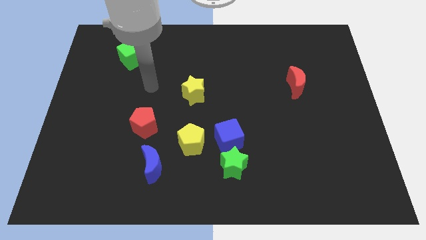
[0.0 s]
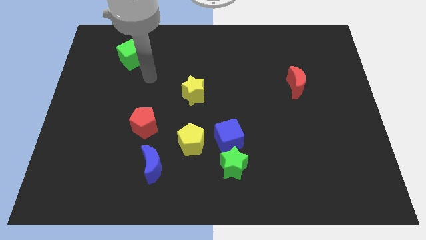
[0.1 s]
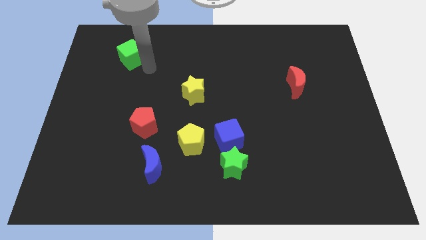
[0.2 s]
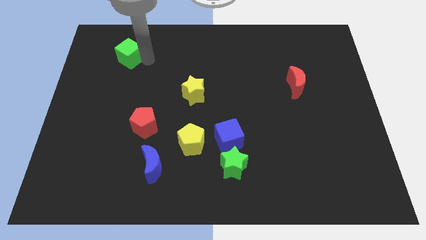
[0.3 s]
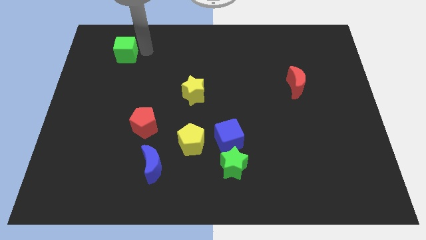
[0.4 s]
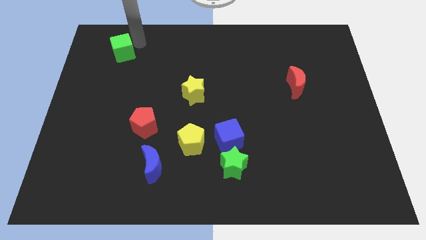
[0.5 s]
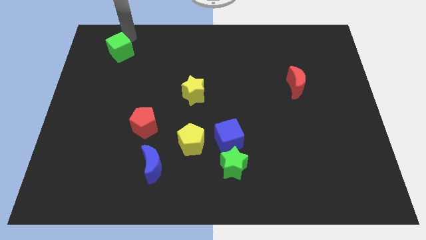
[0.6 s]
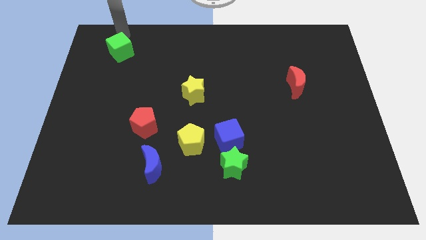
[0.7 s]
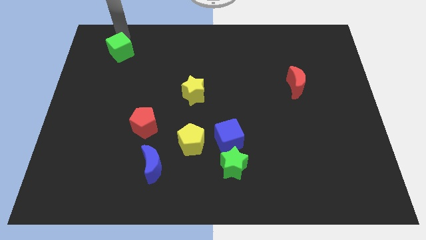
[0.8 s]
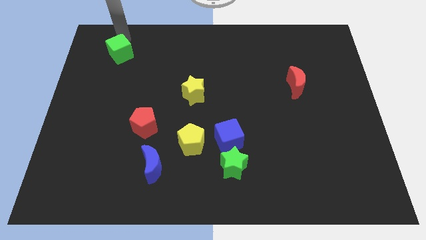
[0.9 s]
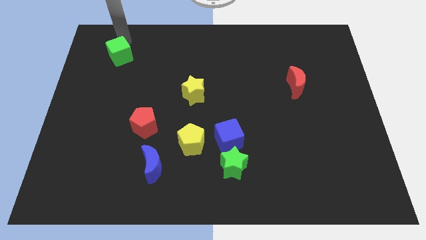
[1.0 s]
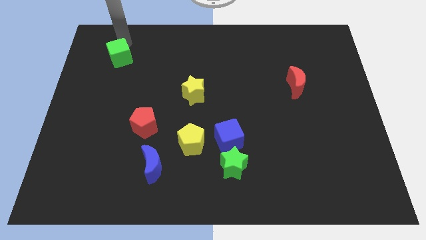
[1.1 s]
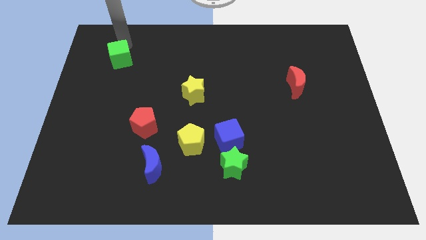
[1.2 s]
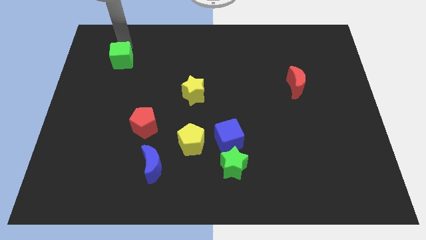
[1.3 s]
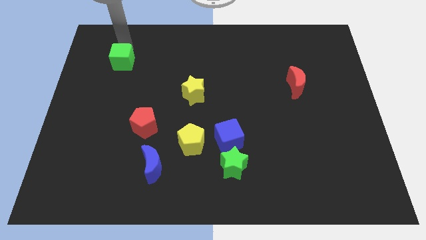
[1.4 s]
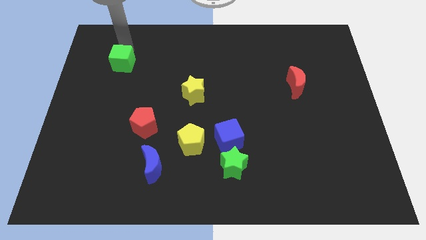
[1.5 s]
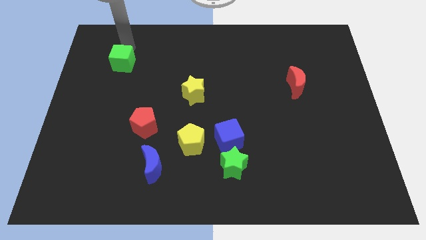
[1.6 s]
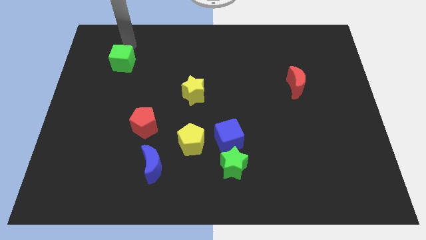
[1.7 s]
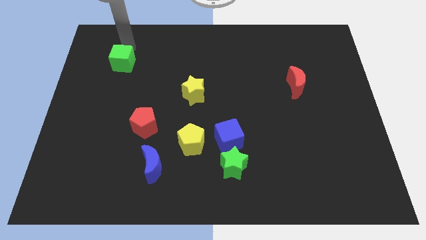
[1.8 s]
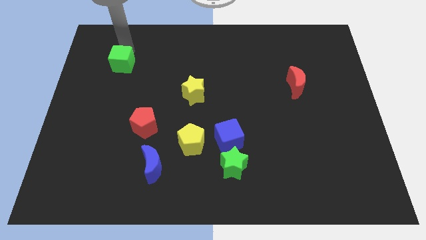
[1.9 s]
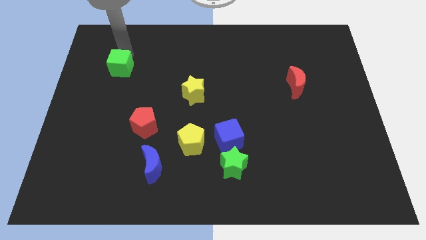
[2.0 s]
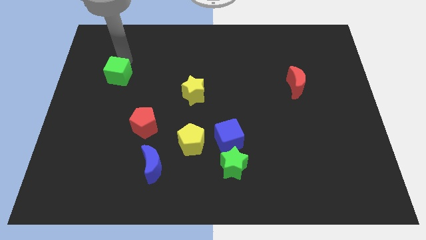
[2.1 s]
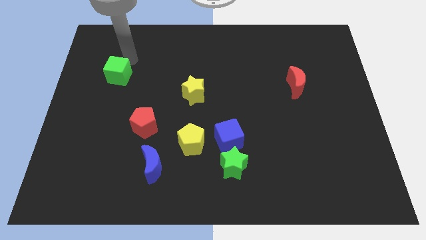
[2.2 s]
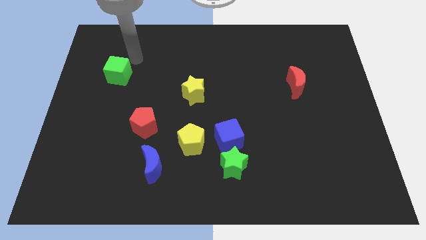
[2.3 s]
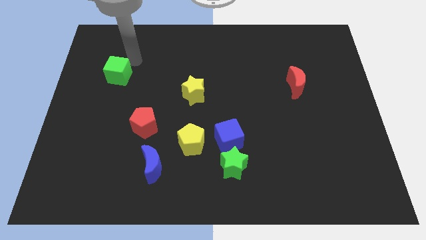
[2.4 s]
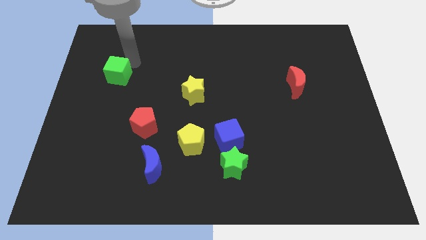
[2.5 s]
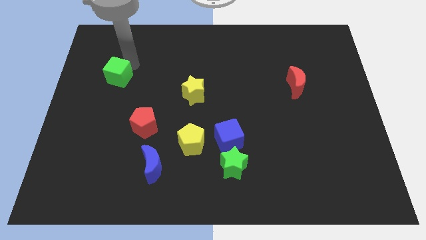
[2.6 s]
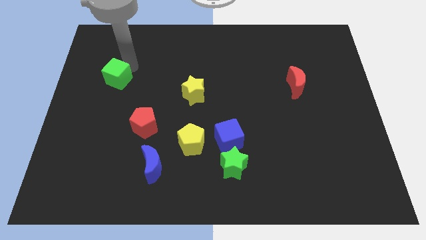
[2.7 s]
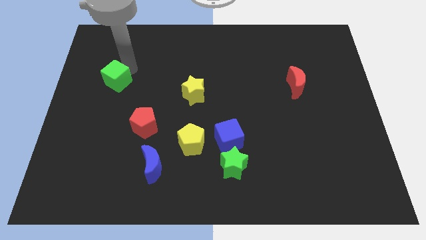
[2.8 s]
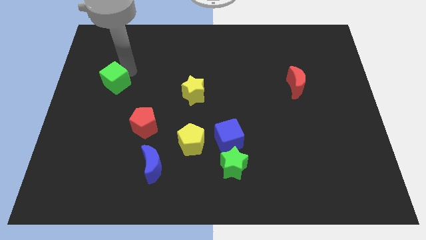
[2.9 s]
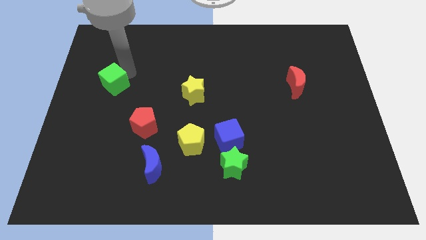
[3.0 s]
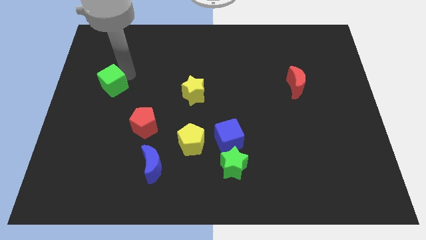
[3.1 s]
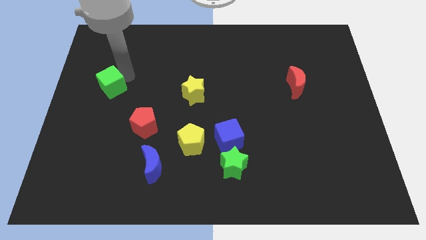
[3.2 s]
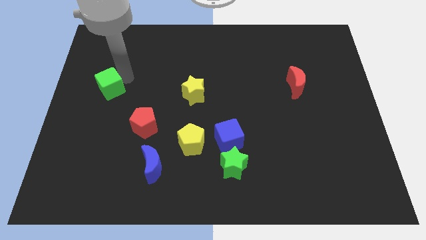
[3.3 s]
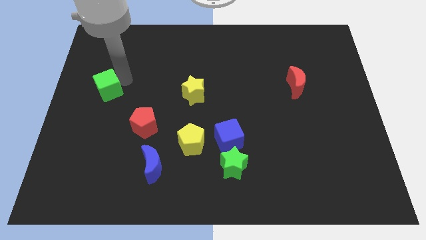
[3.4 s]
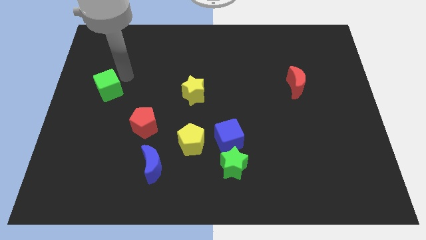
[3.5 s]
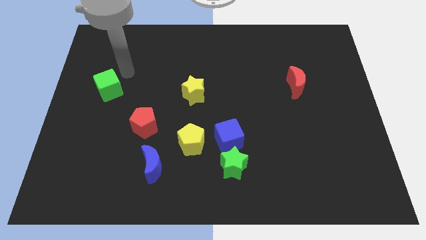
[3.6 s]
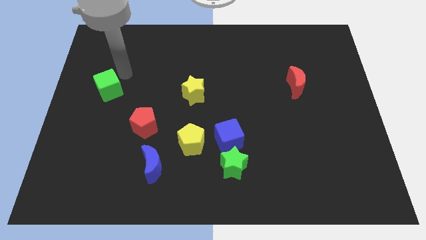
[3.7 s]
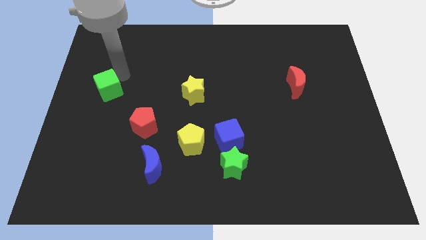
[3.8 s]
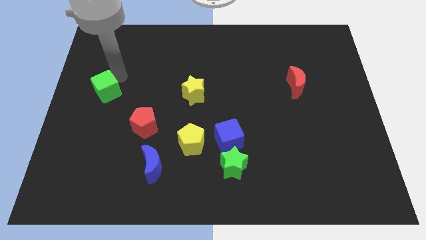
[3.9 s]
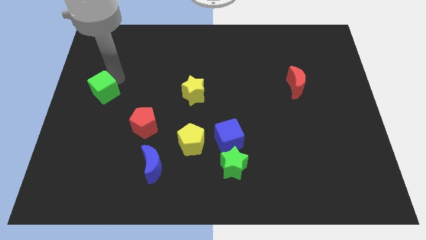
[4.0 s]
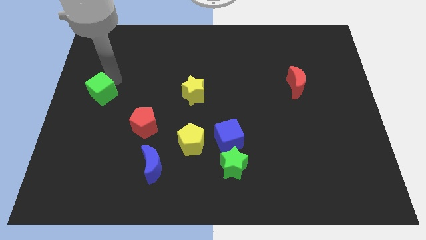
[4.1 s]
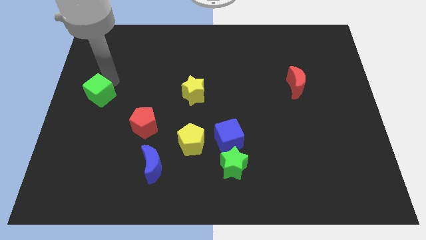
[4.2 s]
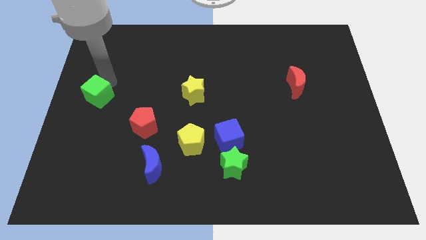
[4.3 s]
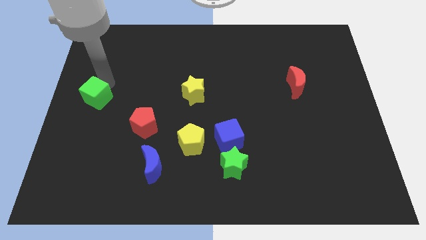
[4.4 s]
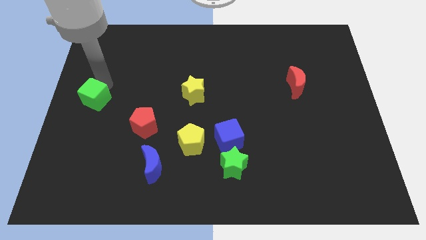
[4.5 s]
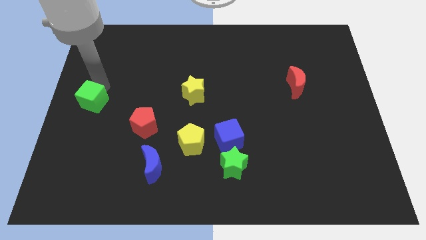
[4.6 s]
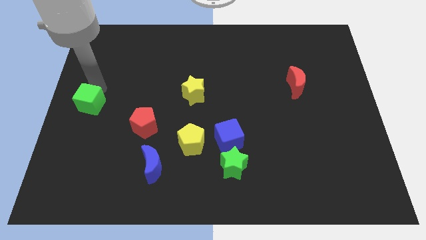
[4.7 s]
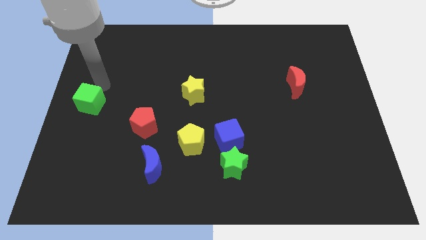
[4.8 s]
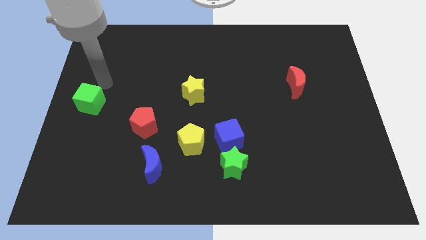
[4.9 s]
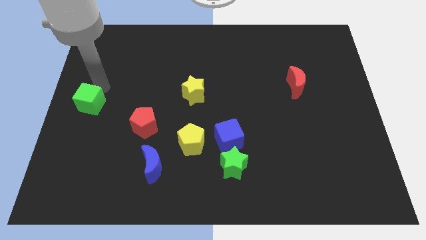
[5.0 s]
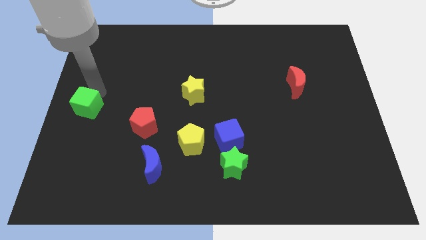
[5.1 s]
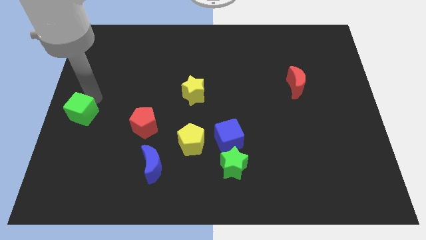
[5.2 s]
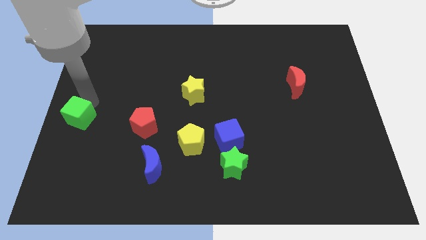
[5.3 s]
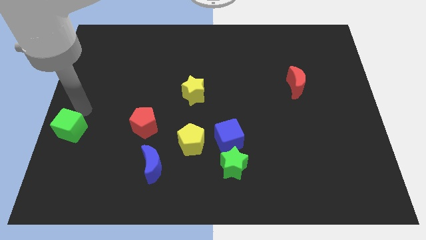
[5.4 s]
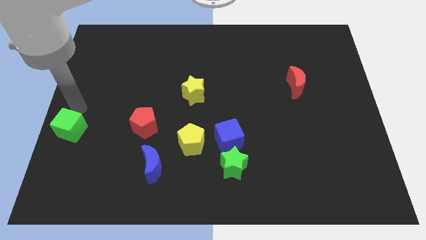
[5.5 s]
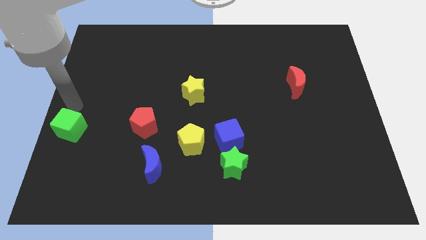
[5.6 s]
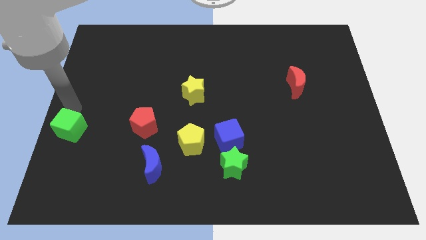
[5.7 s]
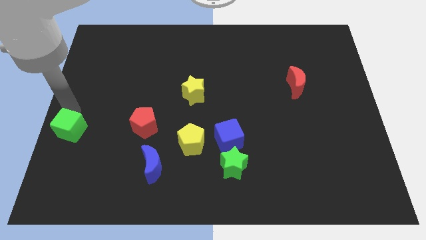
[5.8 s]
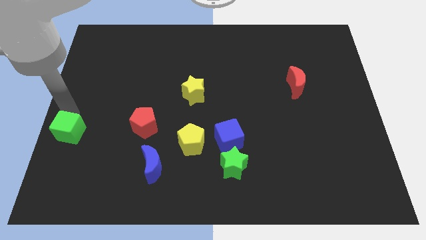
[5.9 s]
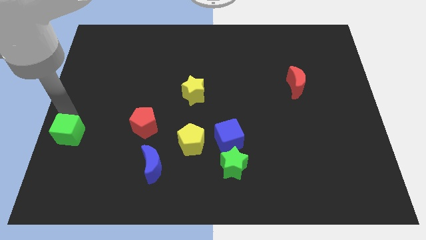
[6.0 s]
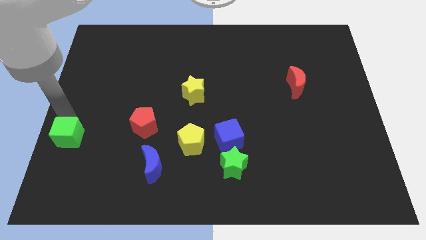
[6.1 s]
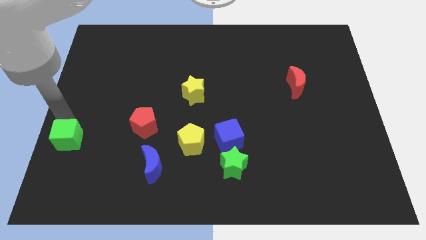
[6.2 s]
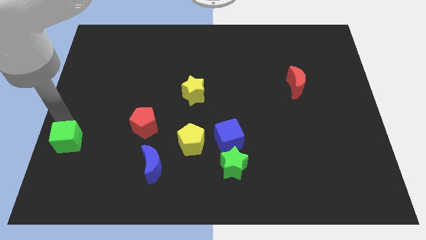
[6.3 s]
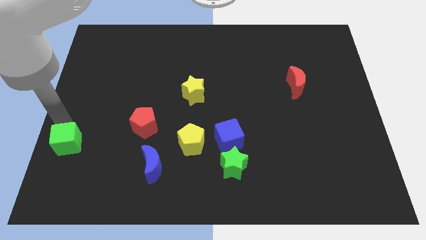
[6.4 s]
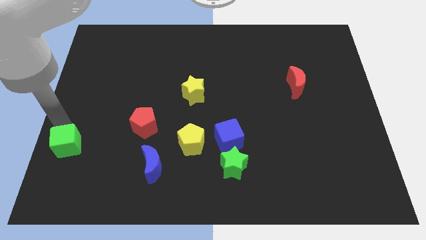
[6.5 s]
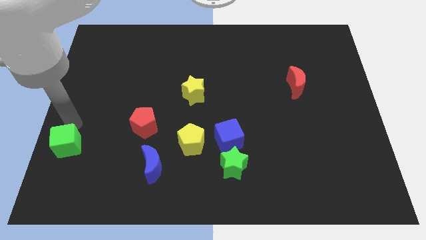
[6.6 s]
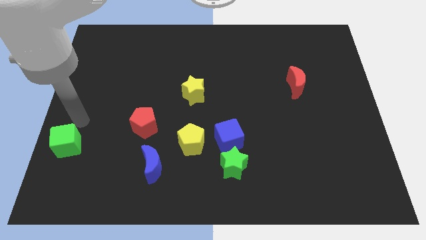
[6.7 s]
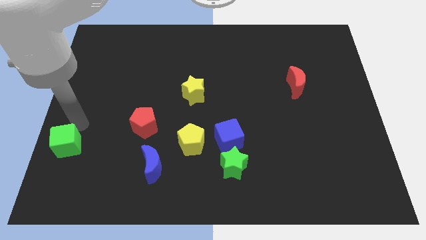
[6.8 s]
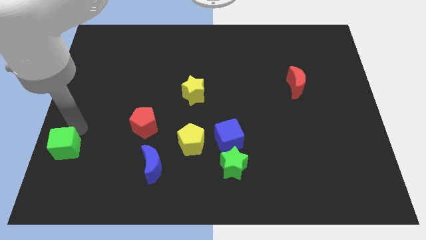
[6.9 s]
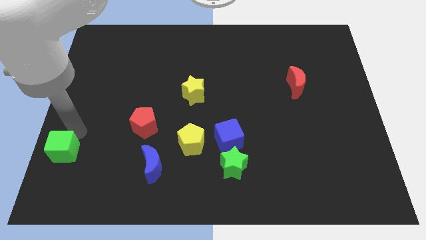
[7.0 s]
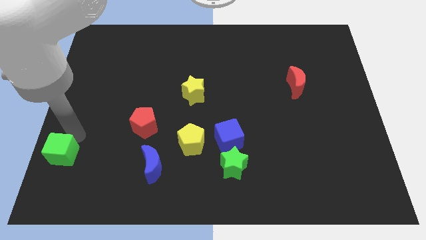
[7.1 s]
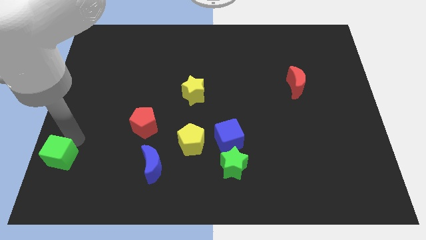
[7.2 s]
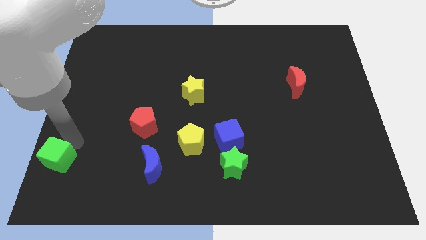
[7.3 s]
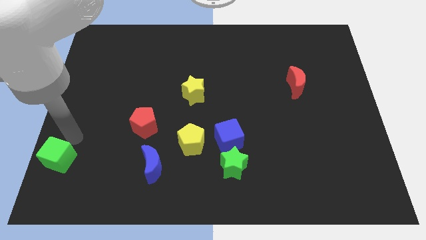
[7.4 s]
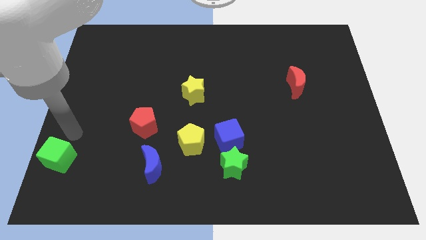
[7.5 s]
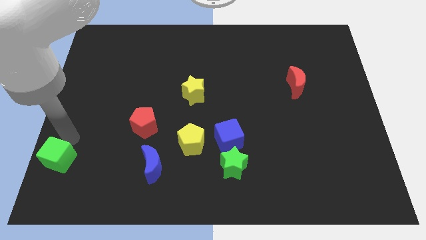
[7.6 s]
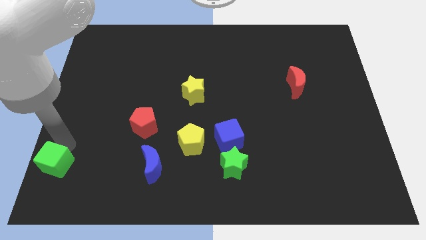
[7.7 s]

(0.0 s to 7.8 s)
put the green cube to the bottom left corner

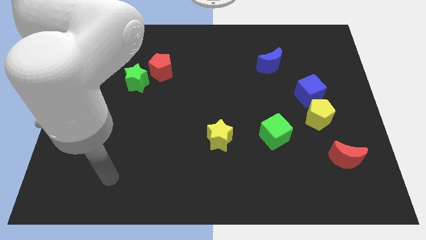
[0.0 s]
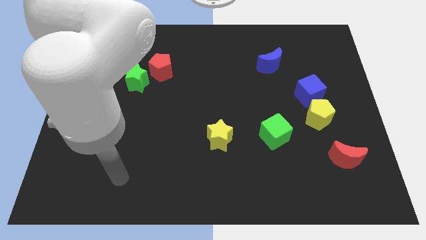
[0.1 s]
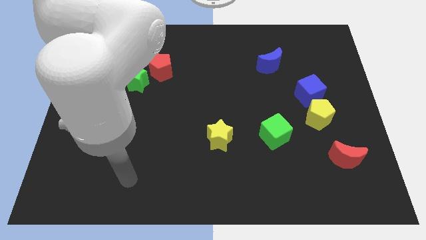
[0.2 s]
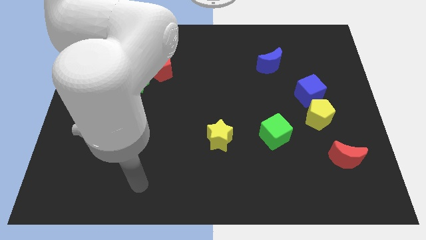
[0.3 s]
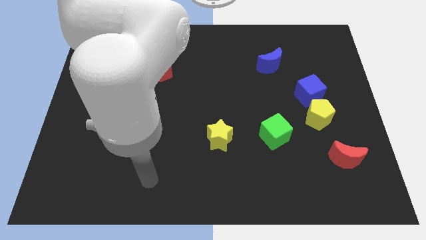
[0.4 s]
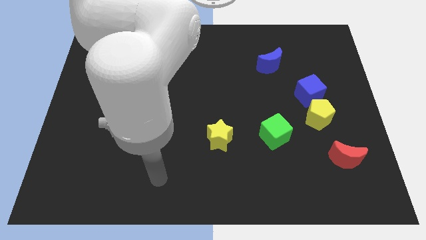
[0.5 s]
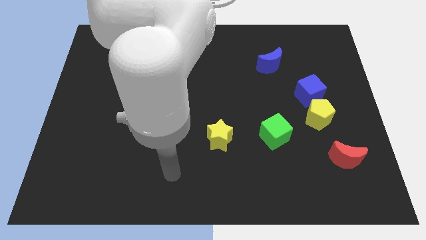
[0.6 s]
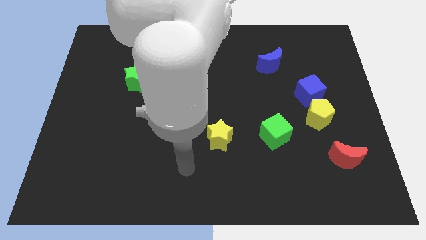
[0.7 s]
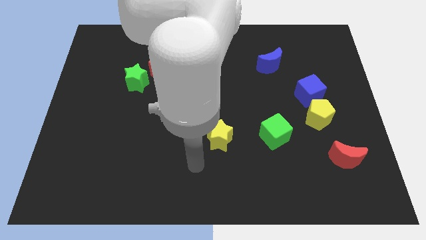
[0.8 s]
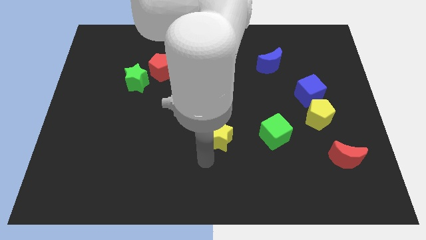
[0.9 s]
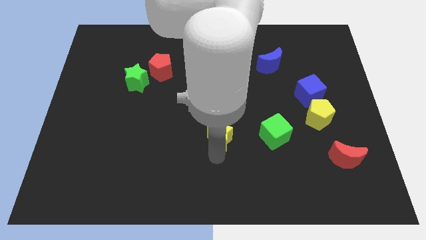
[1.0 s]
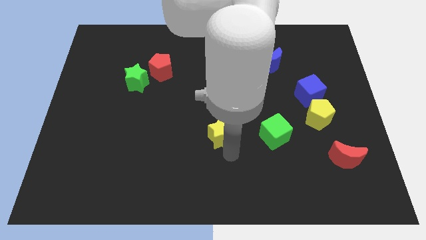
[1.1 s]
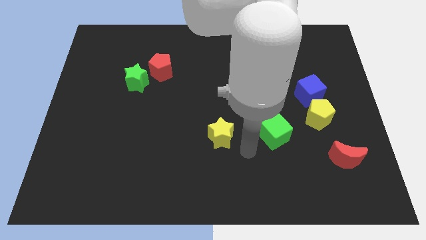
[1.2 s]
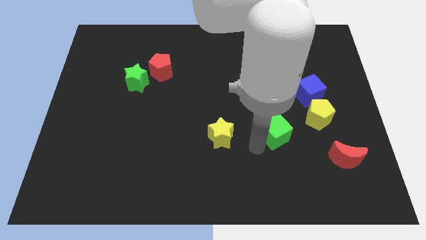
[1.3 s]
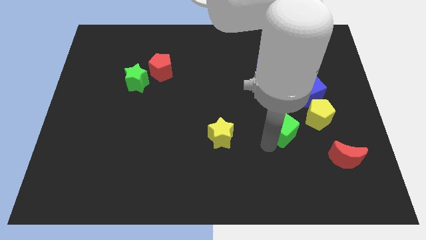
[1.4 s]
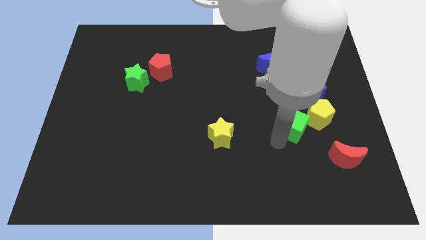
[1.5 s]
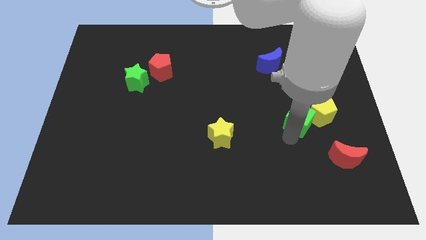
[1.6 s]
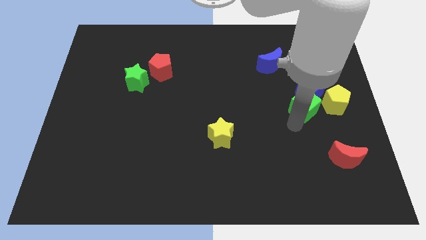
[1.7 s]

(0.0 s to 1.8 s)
move the yellow pentagon to the center right
